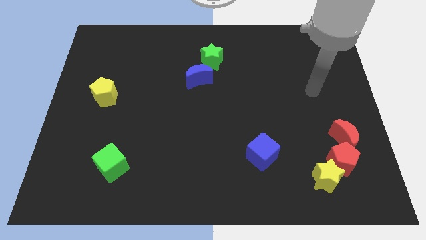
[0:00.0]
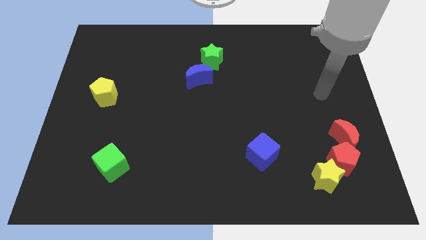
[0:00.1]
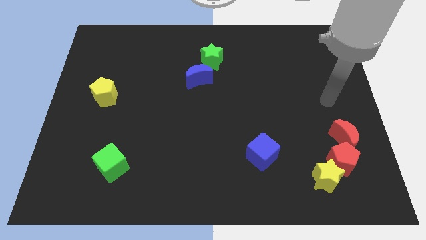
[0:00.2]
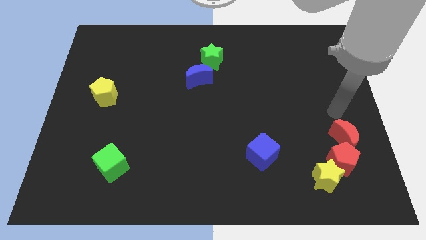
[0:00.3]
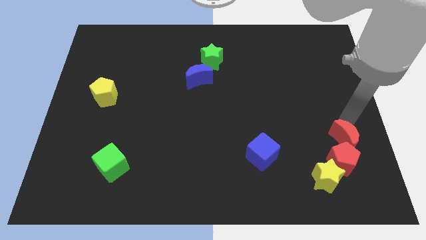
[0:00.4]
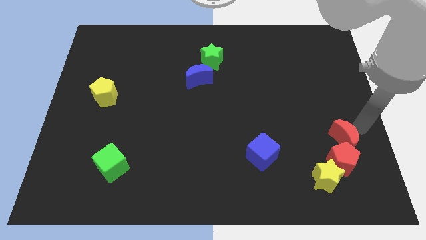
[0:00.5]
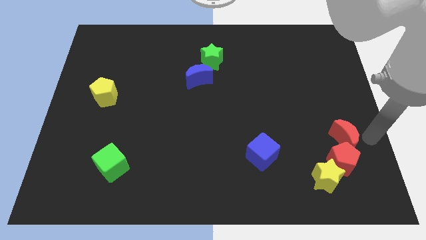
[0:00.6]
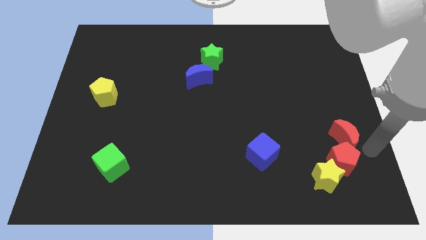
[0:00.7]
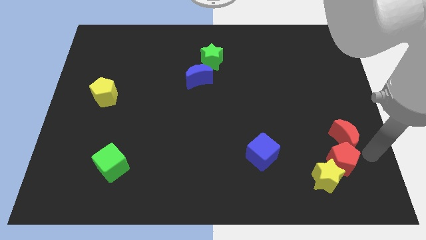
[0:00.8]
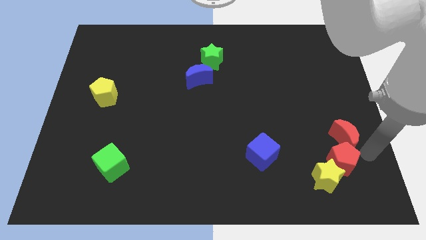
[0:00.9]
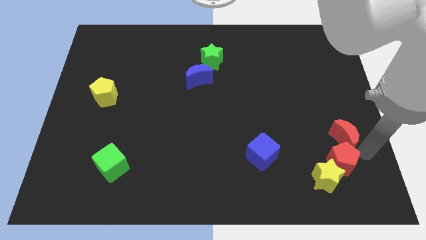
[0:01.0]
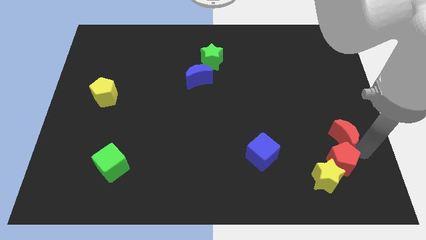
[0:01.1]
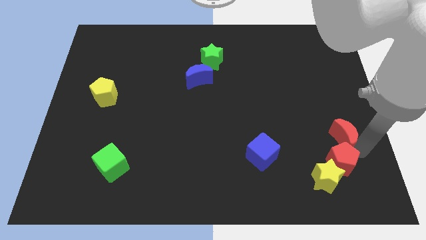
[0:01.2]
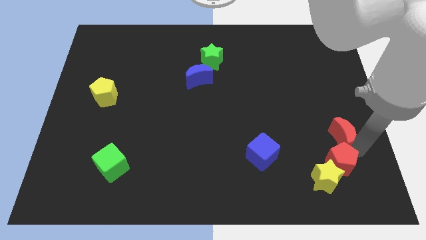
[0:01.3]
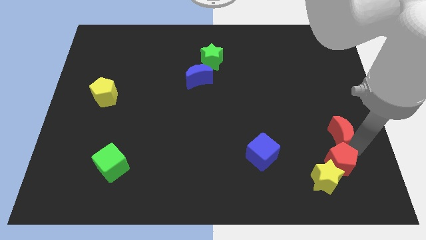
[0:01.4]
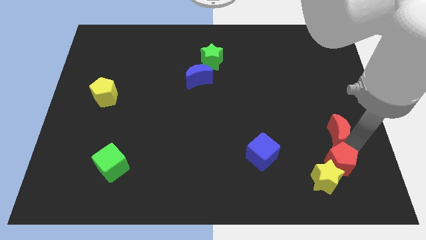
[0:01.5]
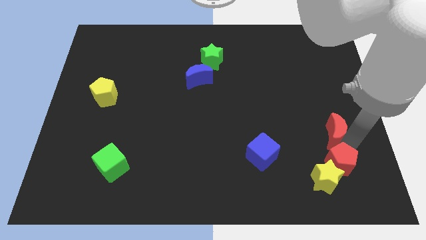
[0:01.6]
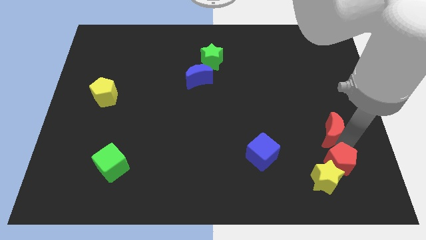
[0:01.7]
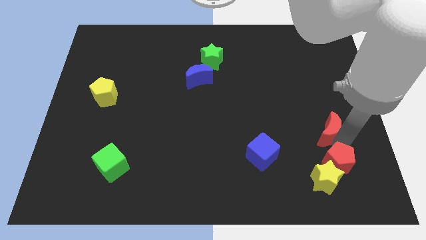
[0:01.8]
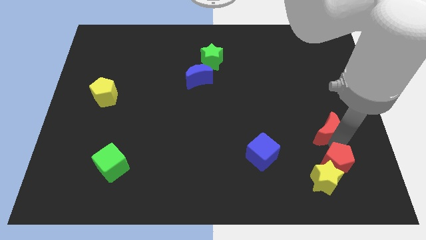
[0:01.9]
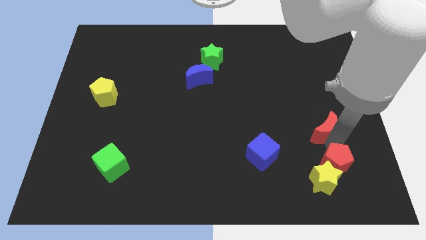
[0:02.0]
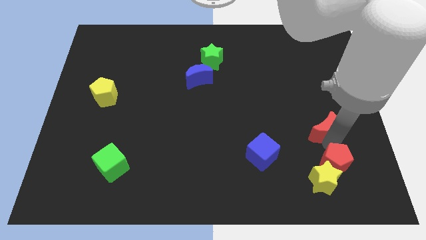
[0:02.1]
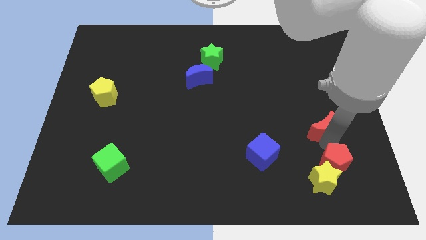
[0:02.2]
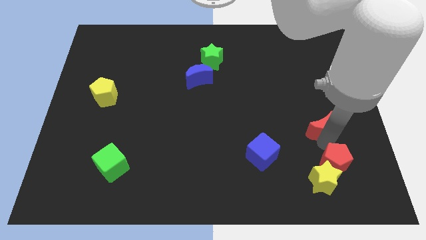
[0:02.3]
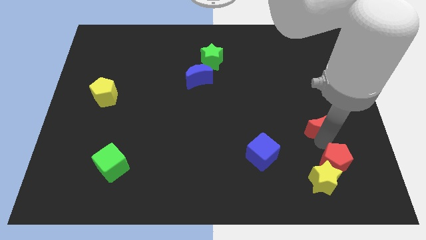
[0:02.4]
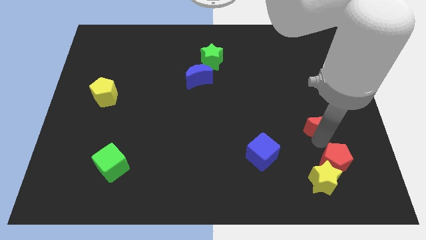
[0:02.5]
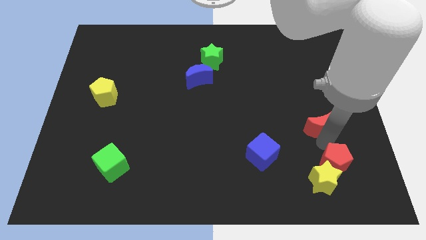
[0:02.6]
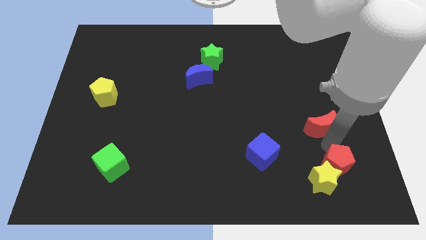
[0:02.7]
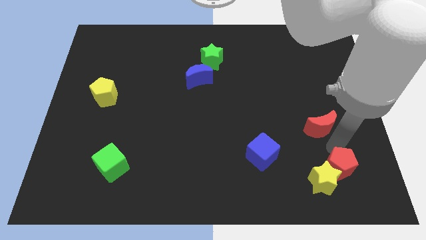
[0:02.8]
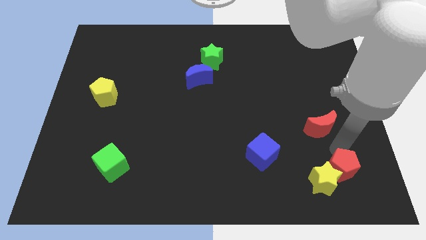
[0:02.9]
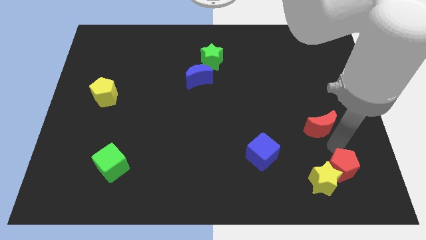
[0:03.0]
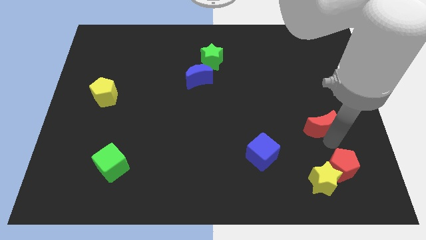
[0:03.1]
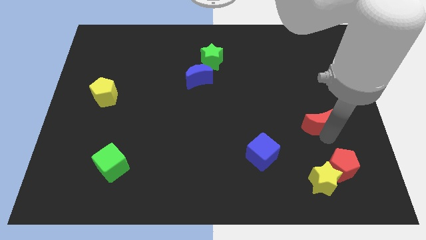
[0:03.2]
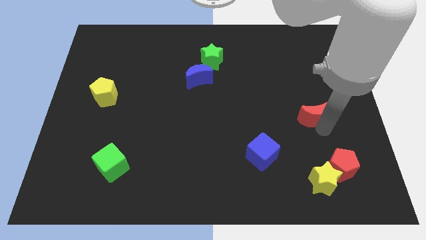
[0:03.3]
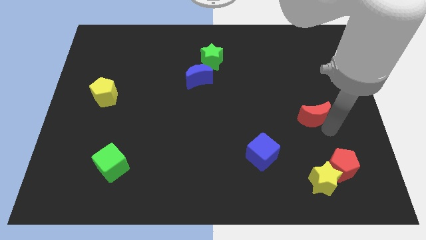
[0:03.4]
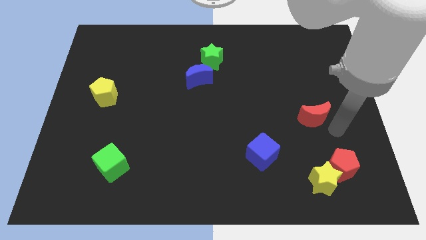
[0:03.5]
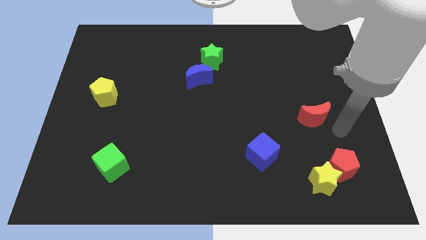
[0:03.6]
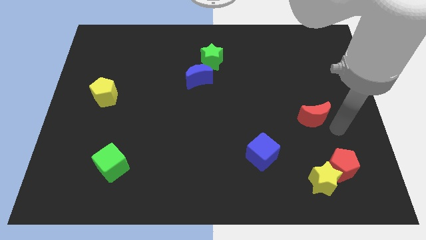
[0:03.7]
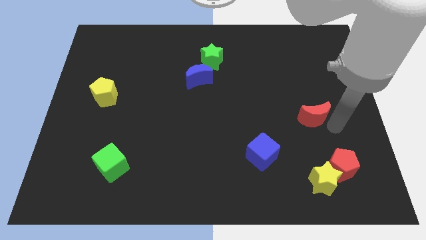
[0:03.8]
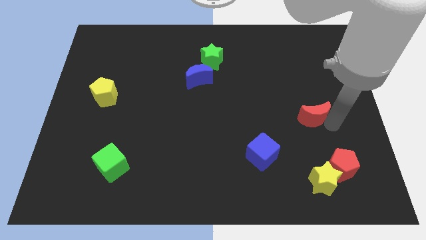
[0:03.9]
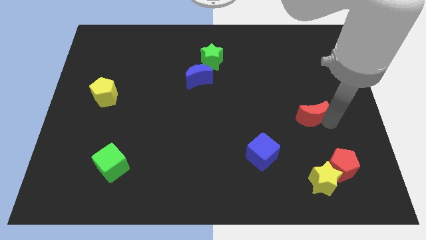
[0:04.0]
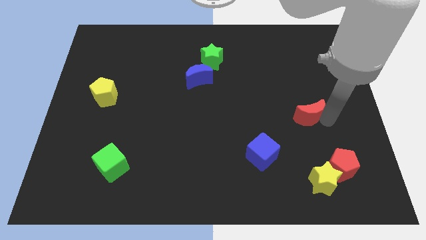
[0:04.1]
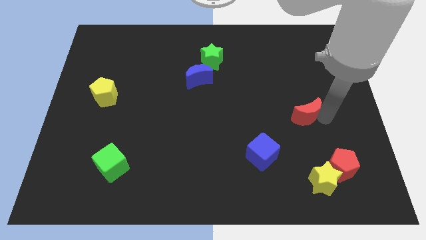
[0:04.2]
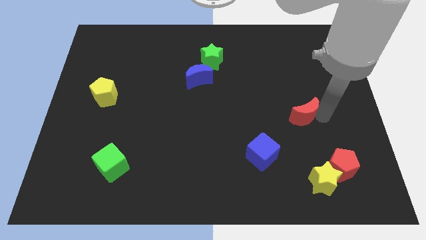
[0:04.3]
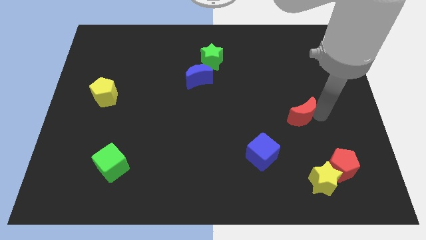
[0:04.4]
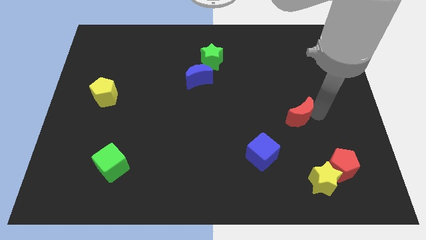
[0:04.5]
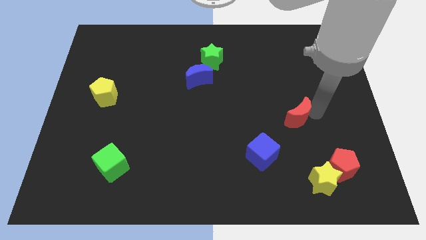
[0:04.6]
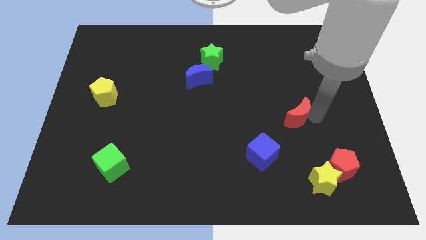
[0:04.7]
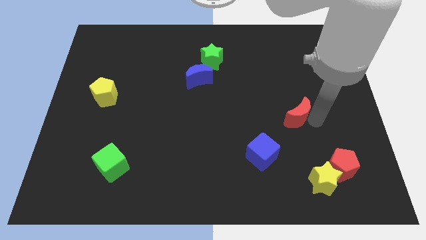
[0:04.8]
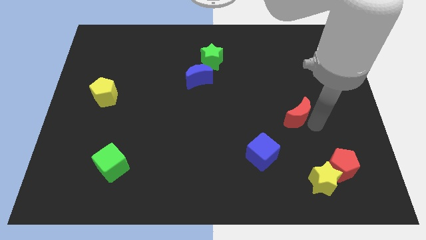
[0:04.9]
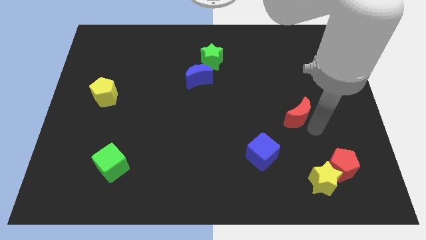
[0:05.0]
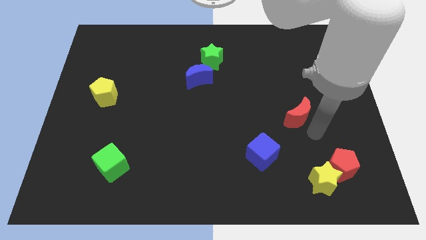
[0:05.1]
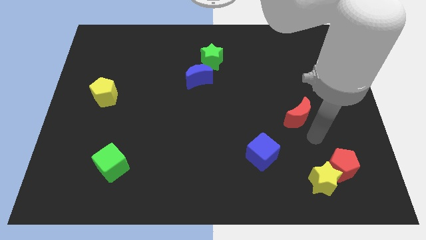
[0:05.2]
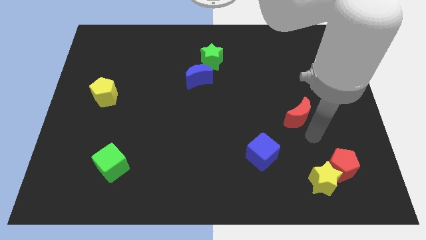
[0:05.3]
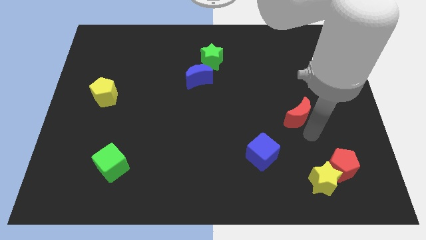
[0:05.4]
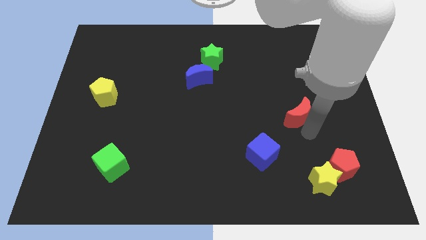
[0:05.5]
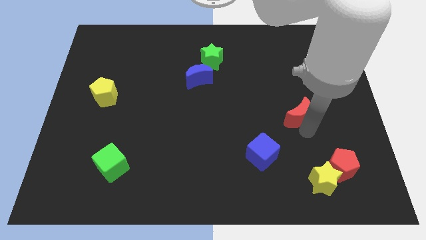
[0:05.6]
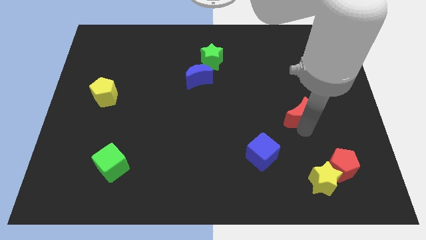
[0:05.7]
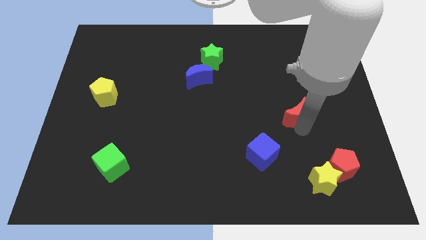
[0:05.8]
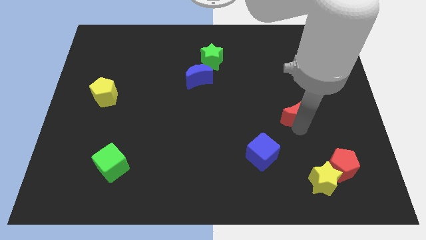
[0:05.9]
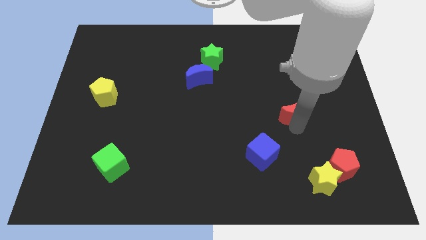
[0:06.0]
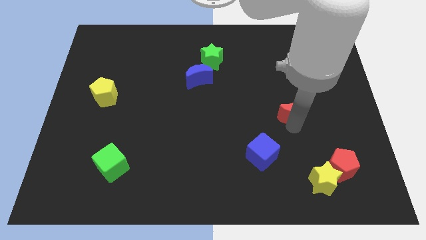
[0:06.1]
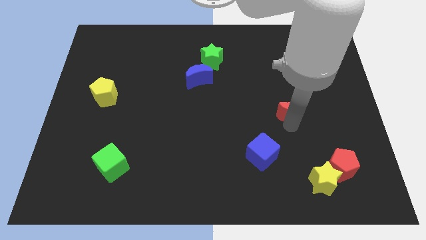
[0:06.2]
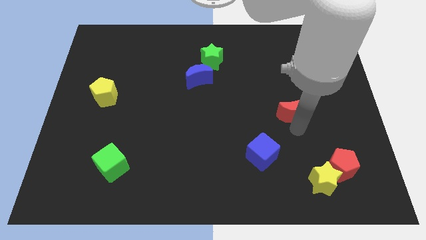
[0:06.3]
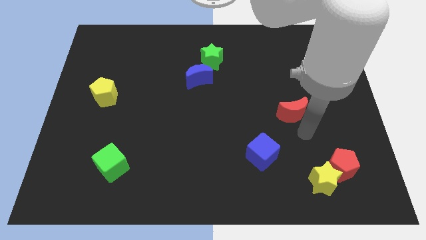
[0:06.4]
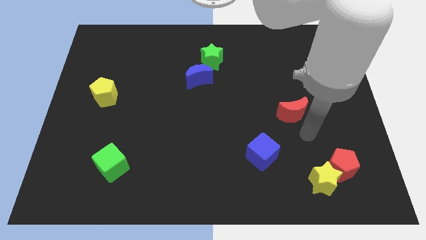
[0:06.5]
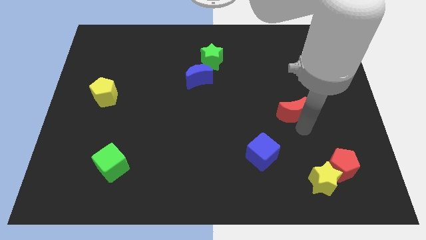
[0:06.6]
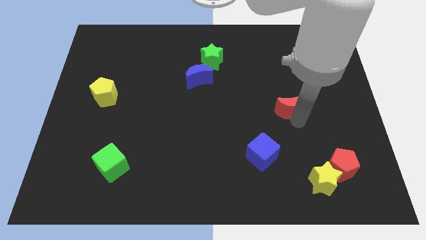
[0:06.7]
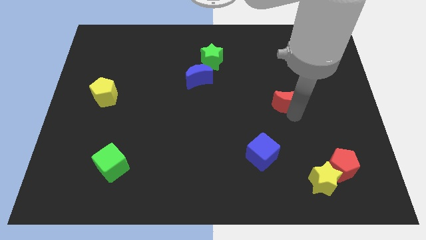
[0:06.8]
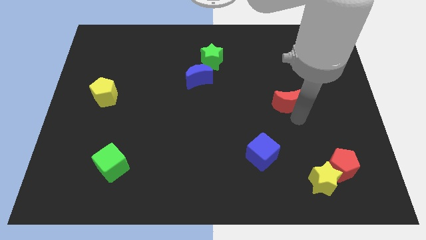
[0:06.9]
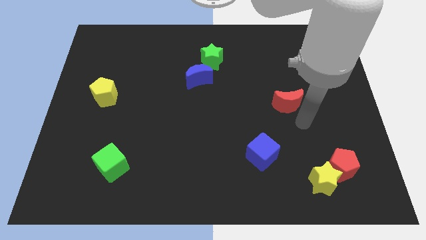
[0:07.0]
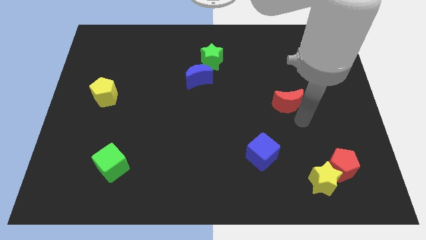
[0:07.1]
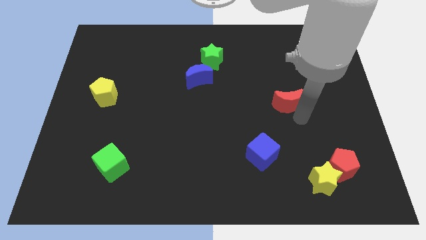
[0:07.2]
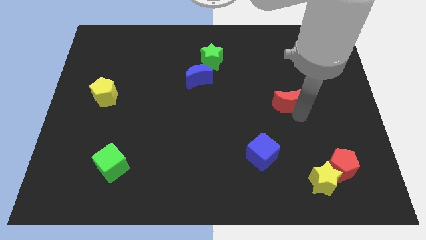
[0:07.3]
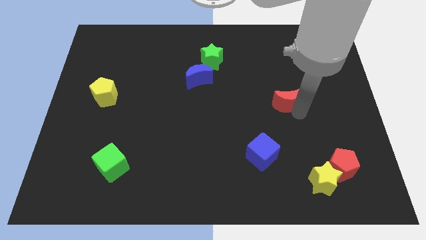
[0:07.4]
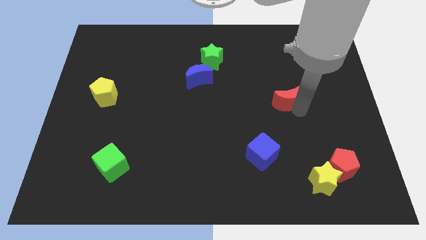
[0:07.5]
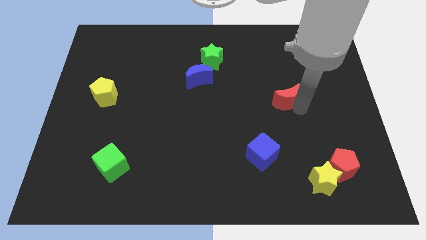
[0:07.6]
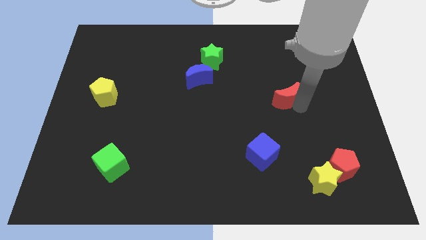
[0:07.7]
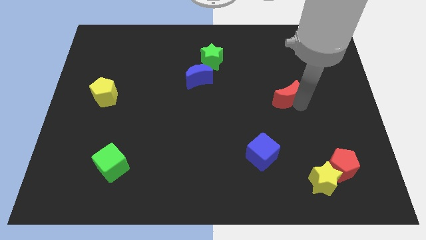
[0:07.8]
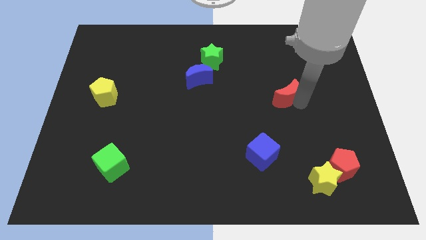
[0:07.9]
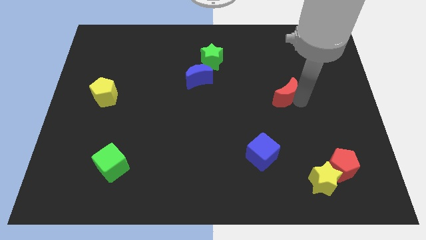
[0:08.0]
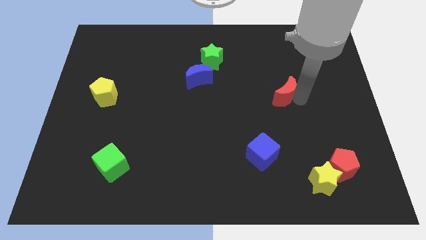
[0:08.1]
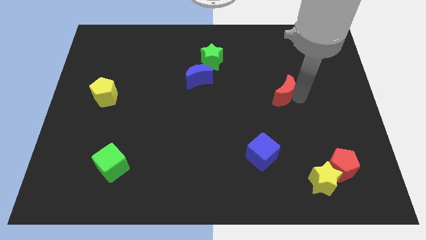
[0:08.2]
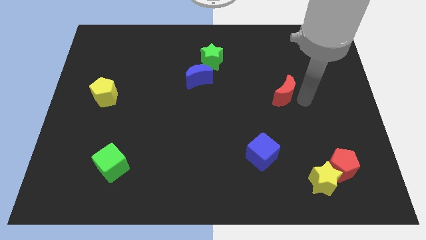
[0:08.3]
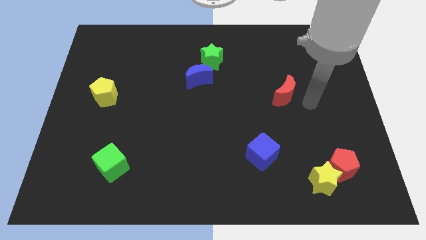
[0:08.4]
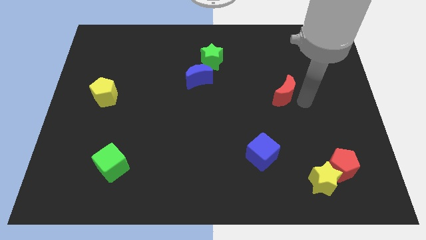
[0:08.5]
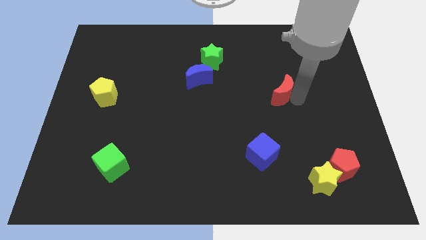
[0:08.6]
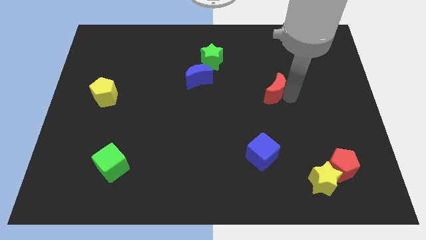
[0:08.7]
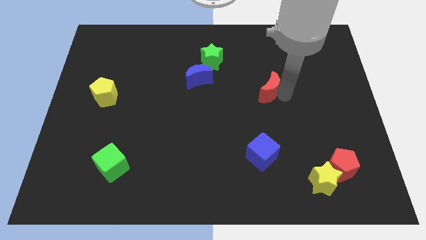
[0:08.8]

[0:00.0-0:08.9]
push the red moon upwards and left diagonally
